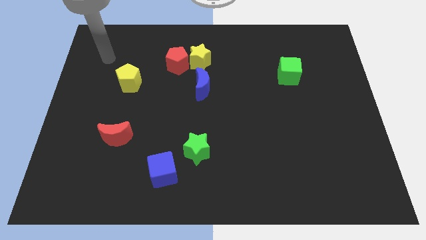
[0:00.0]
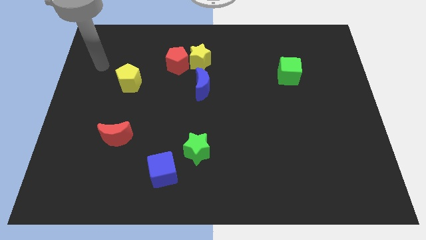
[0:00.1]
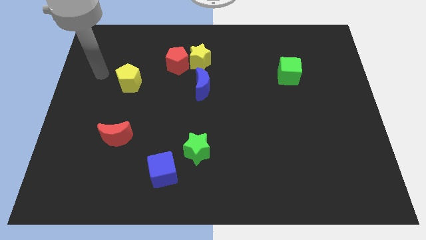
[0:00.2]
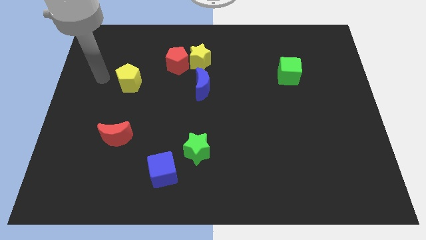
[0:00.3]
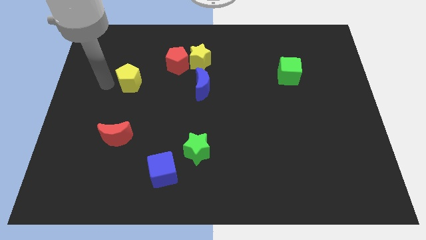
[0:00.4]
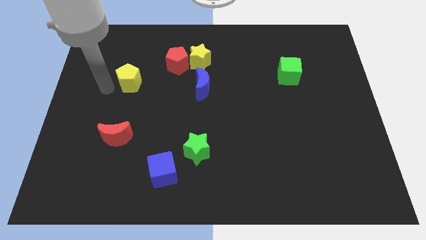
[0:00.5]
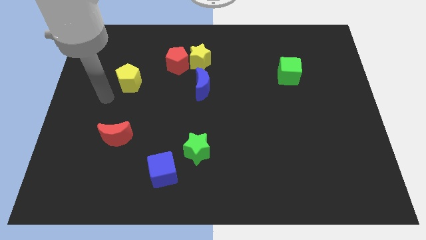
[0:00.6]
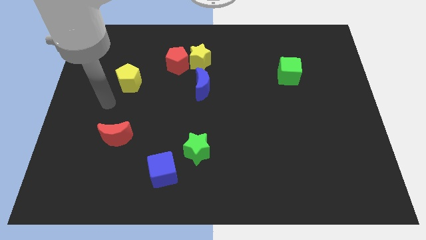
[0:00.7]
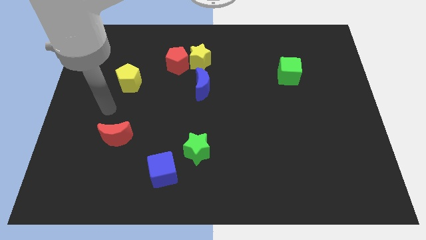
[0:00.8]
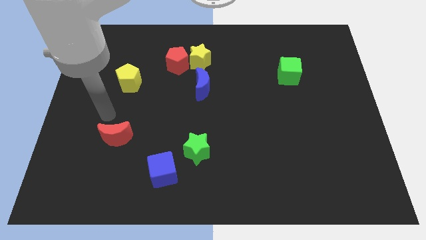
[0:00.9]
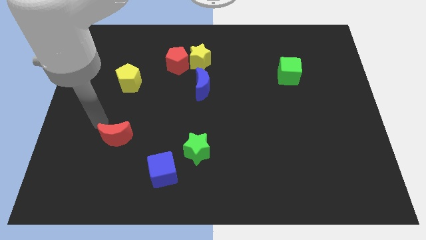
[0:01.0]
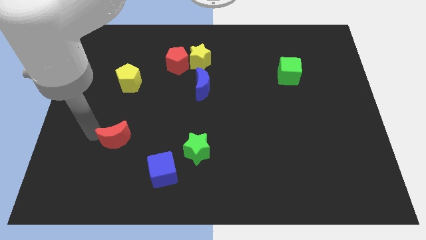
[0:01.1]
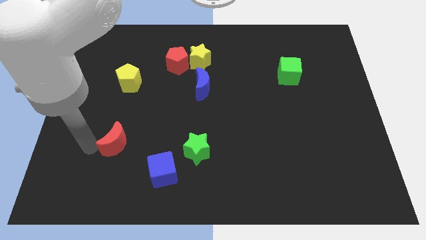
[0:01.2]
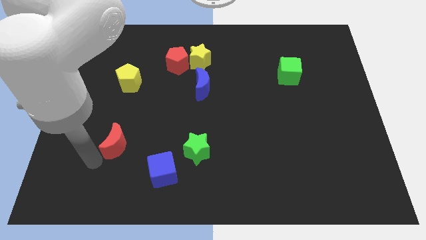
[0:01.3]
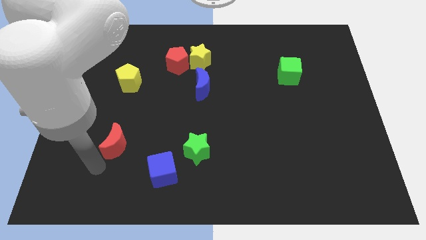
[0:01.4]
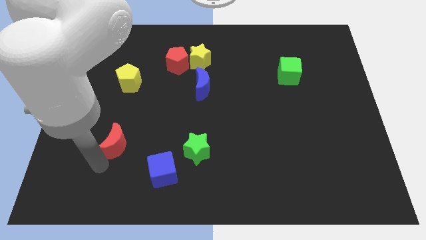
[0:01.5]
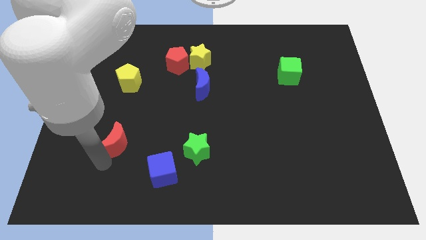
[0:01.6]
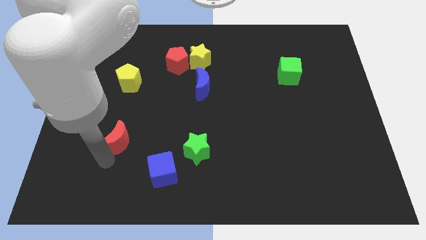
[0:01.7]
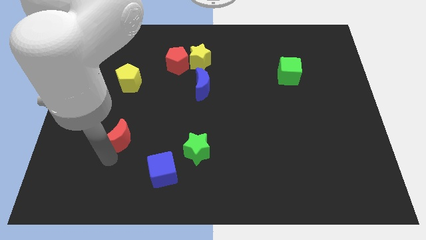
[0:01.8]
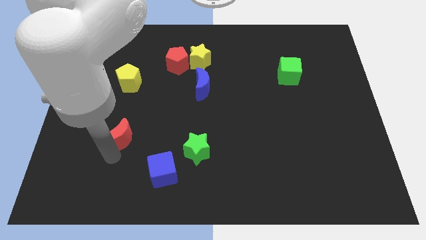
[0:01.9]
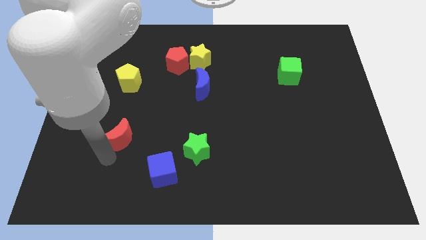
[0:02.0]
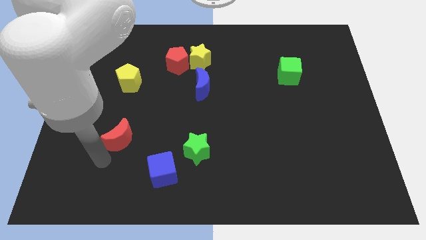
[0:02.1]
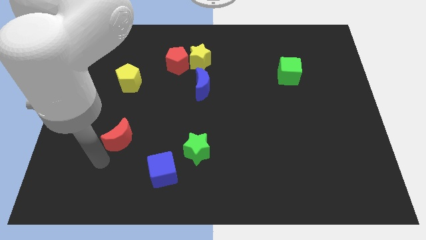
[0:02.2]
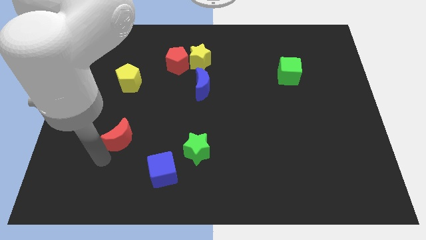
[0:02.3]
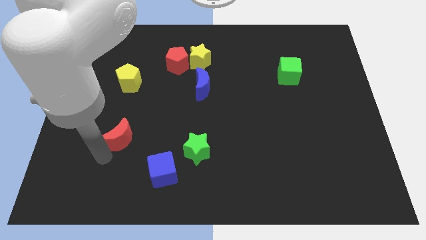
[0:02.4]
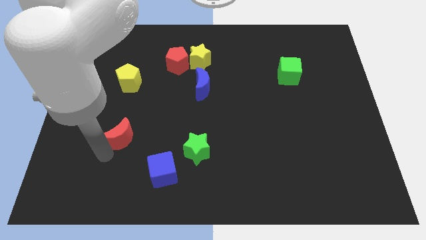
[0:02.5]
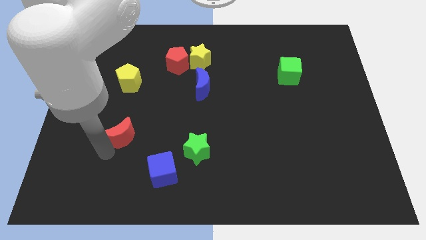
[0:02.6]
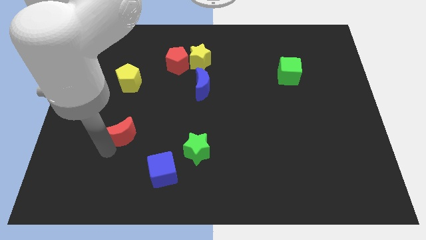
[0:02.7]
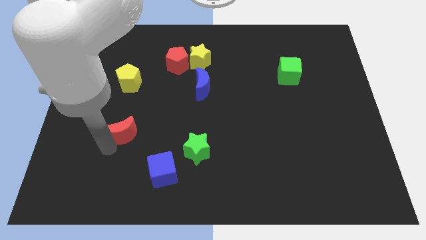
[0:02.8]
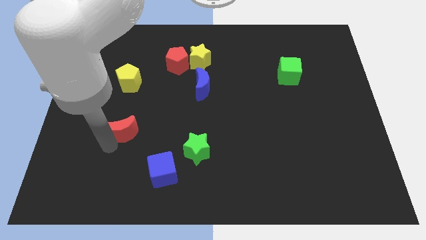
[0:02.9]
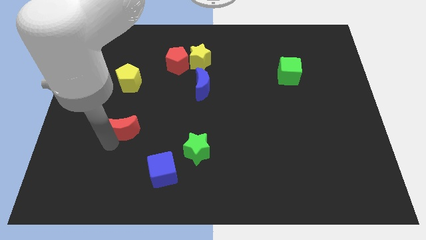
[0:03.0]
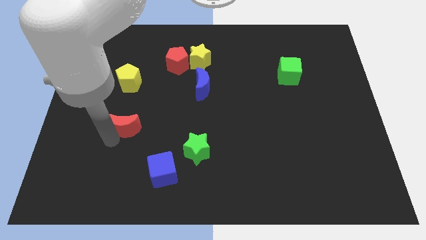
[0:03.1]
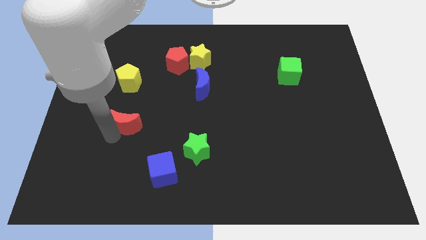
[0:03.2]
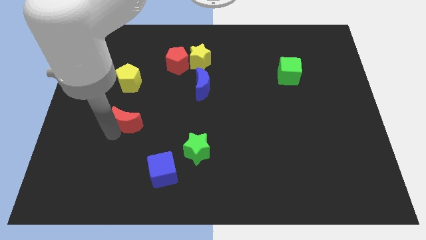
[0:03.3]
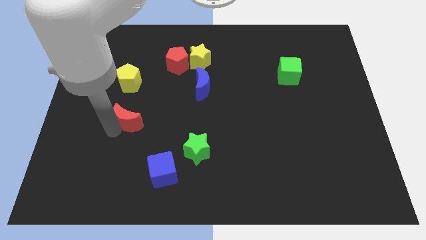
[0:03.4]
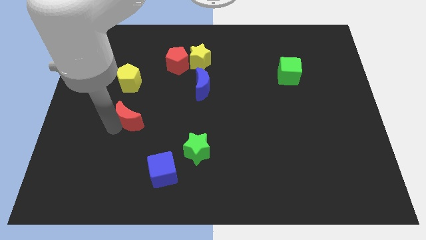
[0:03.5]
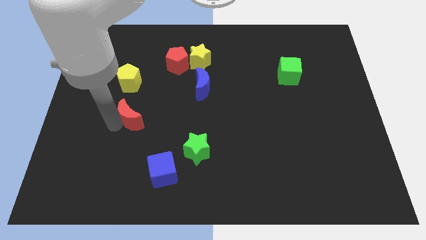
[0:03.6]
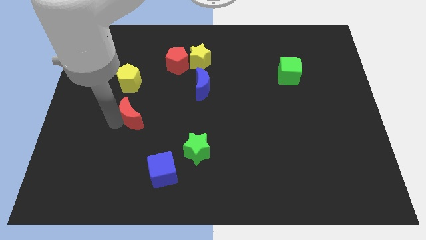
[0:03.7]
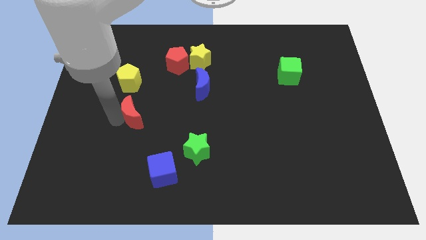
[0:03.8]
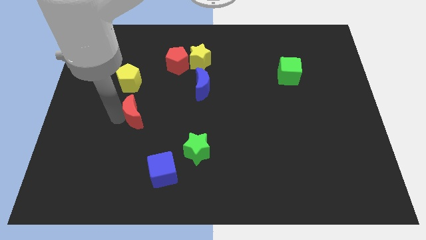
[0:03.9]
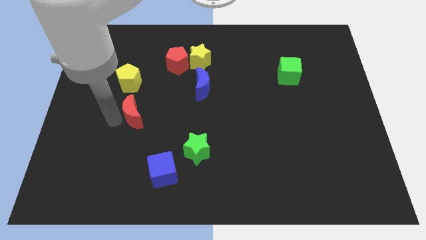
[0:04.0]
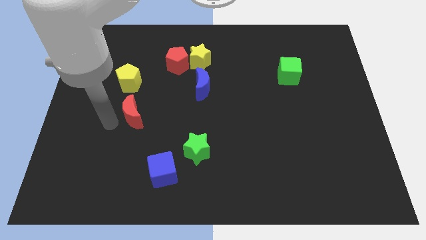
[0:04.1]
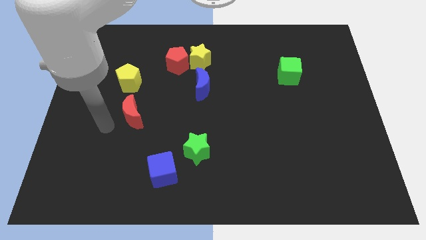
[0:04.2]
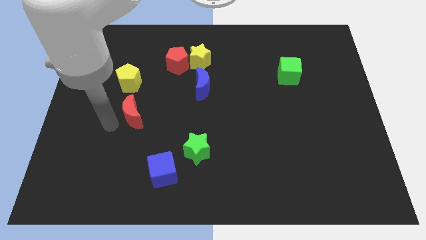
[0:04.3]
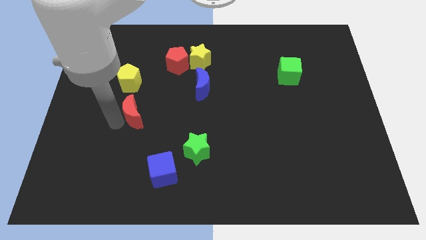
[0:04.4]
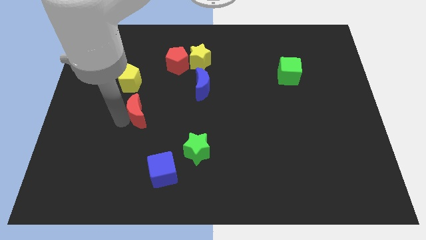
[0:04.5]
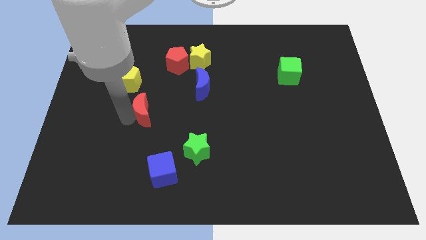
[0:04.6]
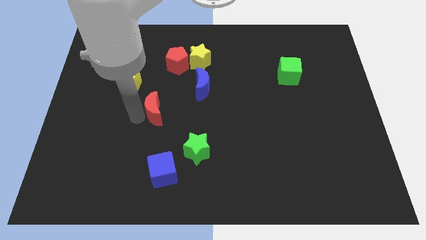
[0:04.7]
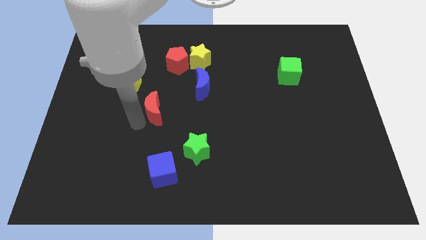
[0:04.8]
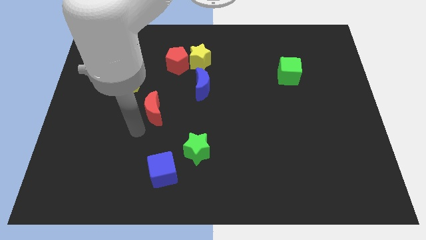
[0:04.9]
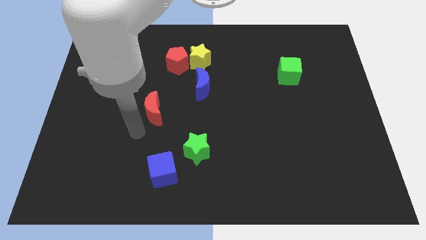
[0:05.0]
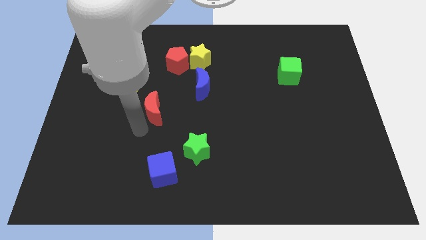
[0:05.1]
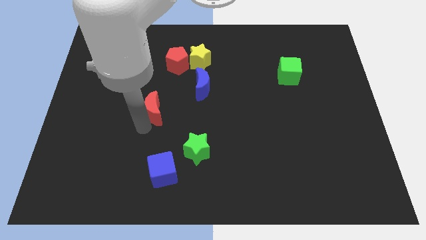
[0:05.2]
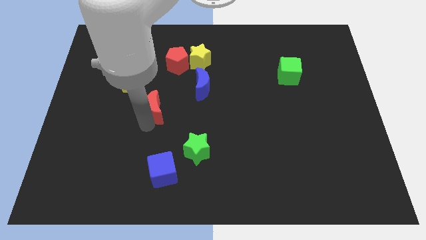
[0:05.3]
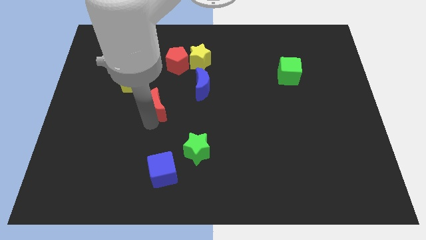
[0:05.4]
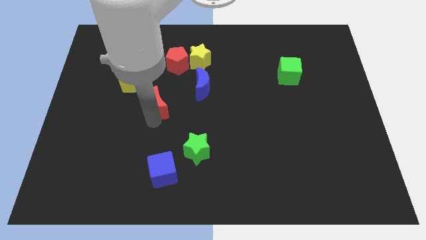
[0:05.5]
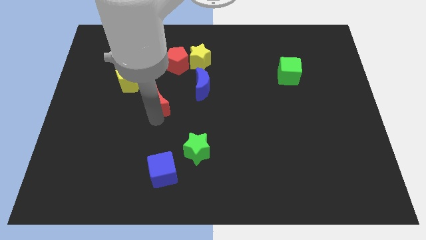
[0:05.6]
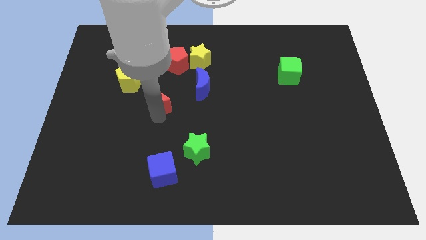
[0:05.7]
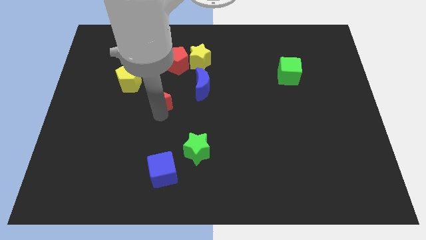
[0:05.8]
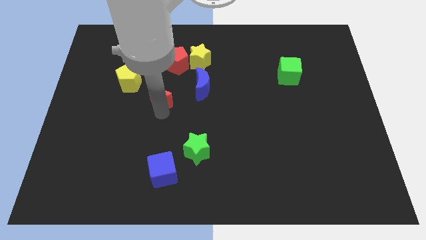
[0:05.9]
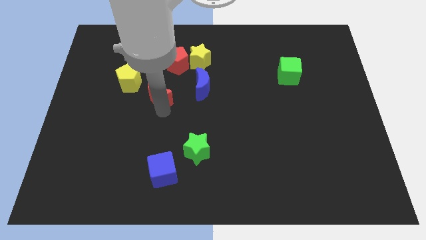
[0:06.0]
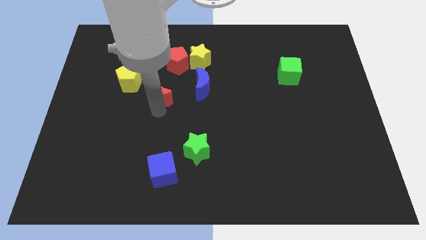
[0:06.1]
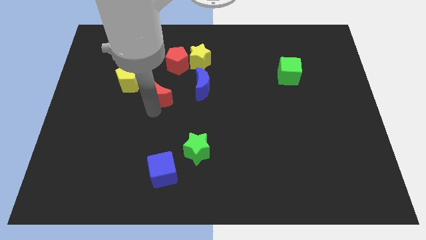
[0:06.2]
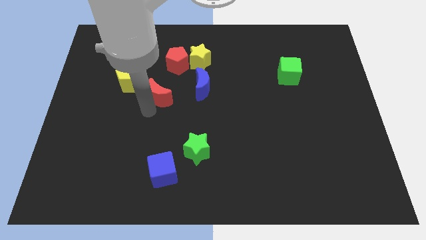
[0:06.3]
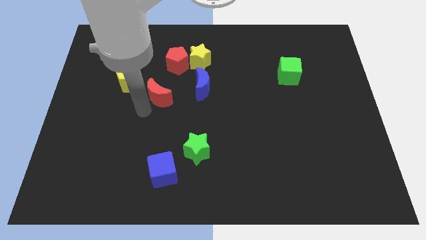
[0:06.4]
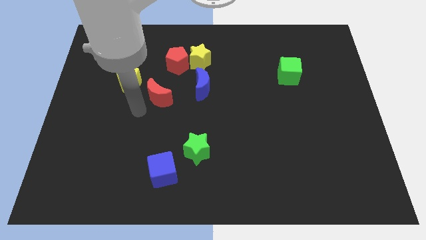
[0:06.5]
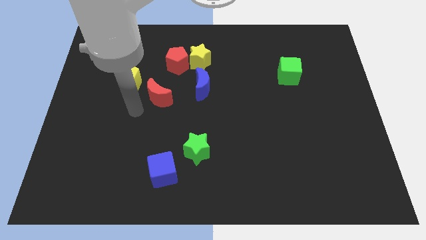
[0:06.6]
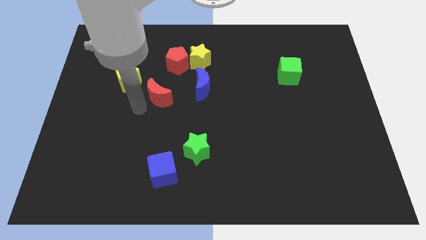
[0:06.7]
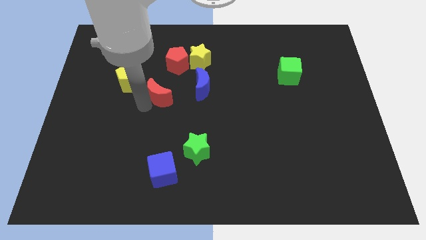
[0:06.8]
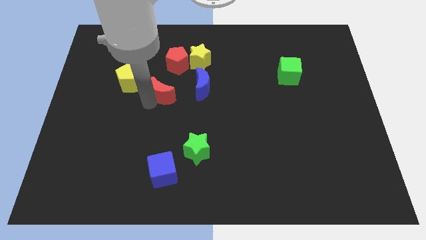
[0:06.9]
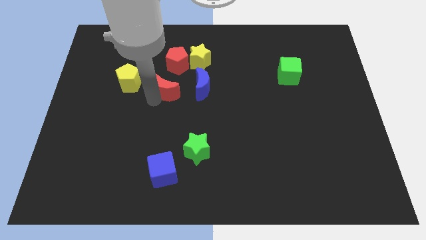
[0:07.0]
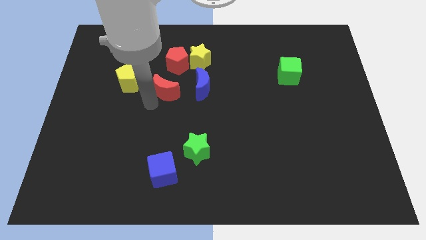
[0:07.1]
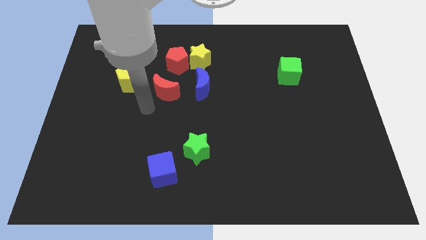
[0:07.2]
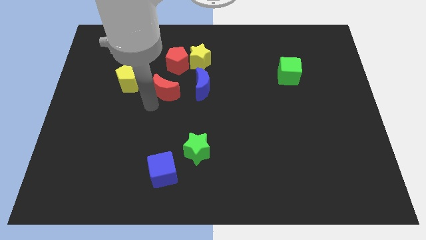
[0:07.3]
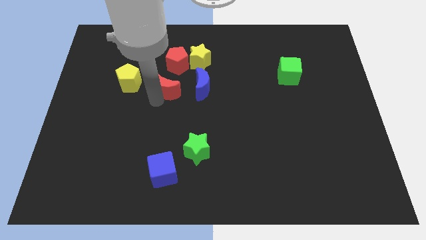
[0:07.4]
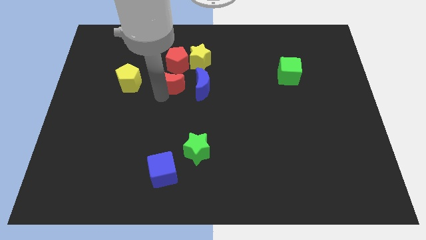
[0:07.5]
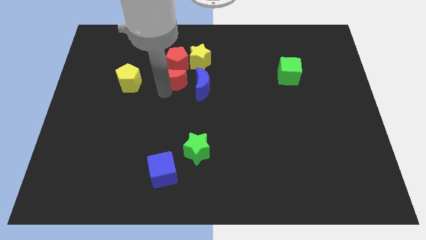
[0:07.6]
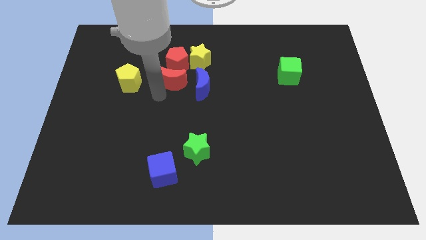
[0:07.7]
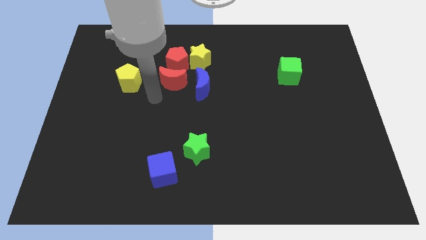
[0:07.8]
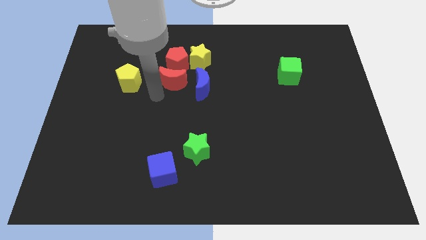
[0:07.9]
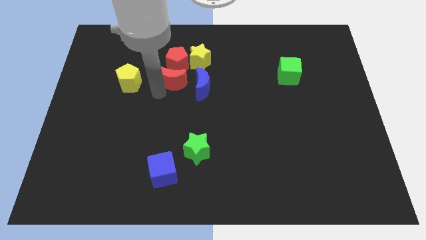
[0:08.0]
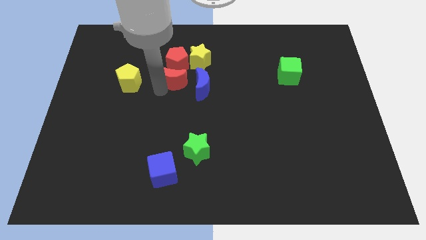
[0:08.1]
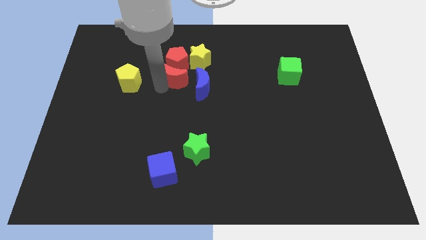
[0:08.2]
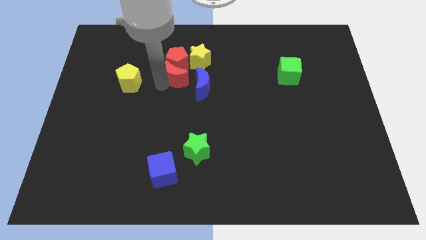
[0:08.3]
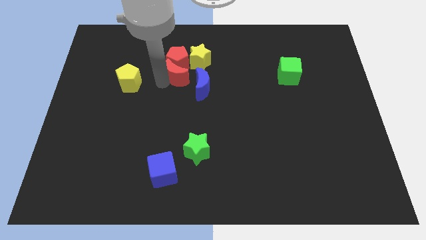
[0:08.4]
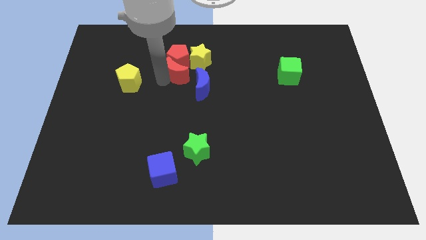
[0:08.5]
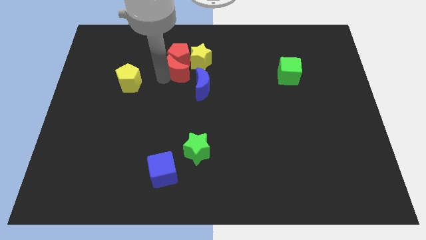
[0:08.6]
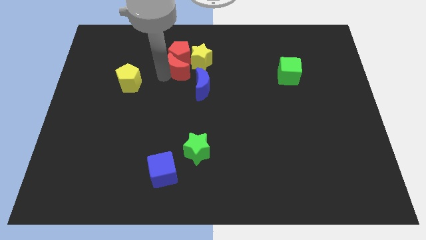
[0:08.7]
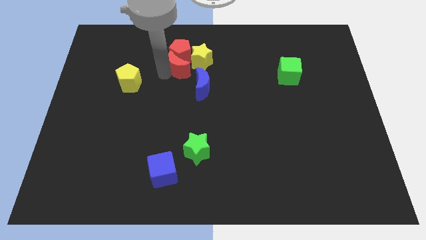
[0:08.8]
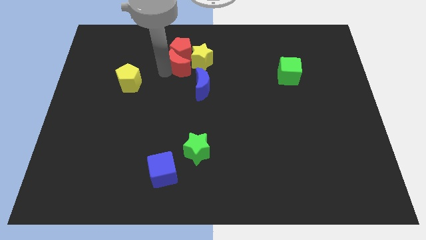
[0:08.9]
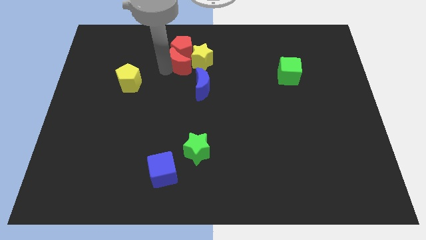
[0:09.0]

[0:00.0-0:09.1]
slide the red moon close to the yellow star
